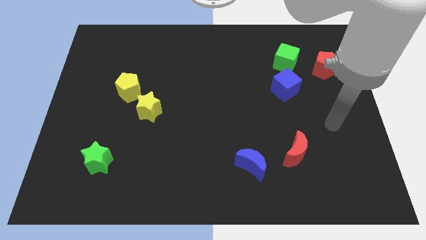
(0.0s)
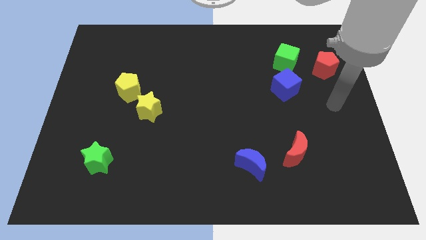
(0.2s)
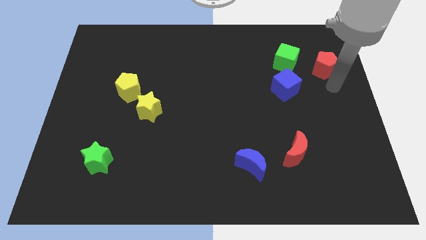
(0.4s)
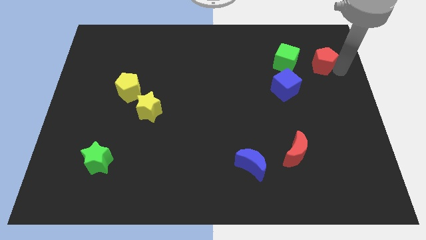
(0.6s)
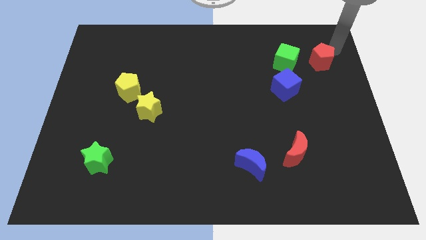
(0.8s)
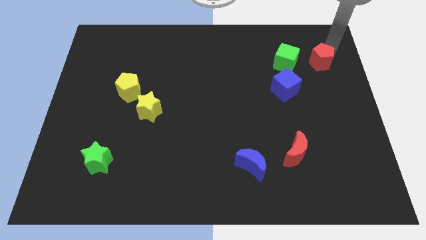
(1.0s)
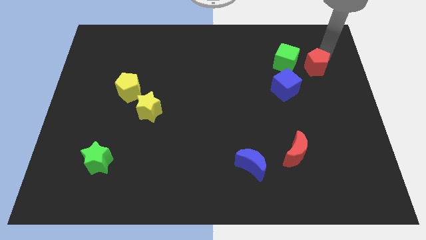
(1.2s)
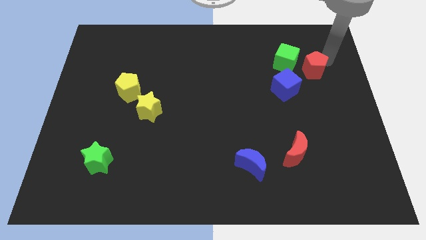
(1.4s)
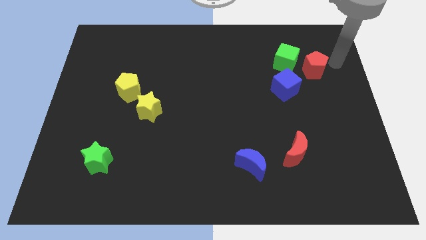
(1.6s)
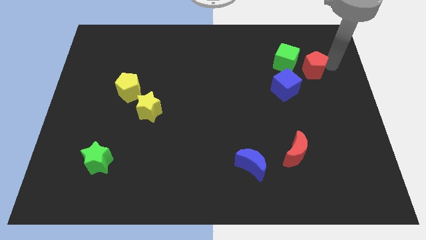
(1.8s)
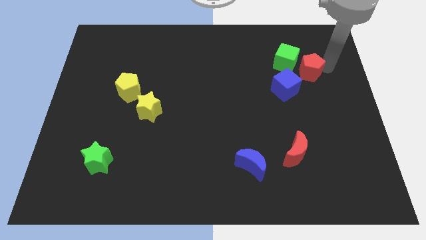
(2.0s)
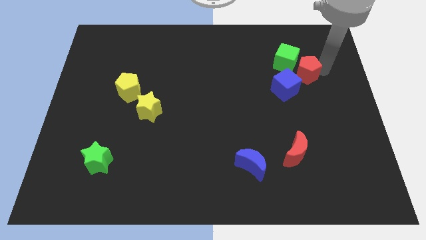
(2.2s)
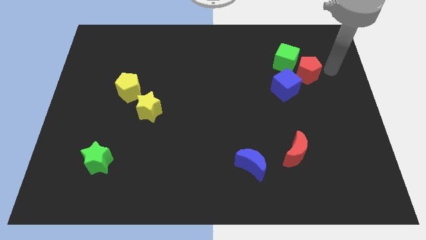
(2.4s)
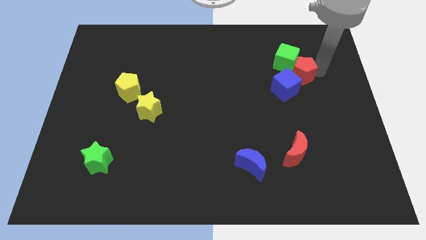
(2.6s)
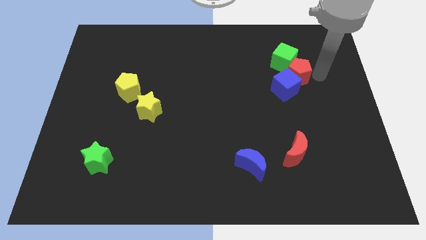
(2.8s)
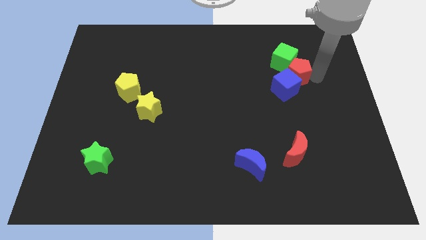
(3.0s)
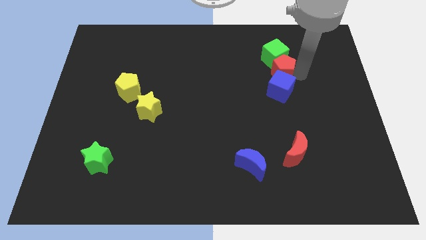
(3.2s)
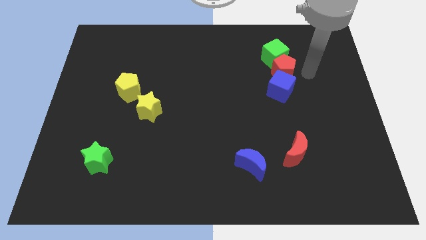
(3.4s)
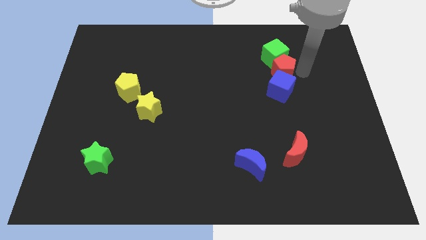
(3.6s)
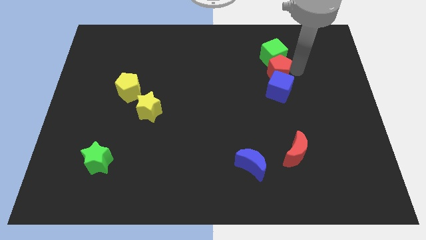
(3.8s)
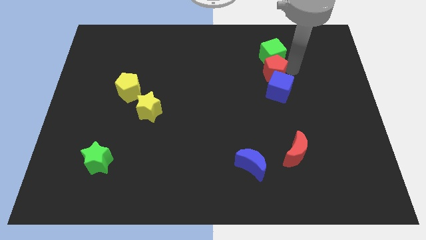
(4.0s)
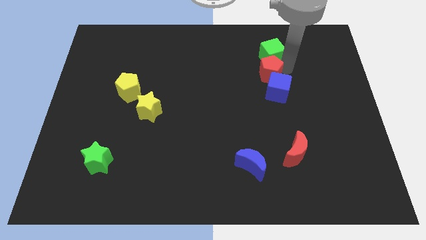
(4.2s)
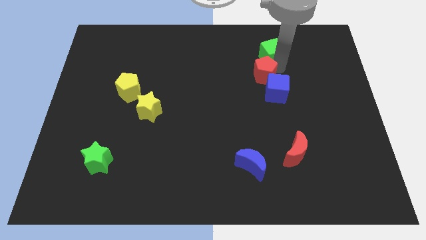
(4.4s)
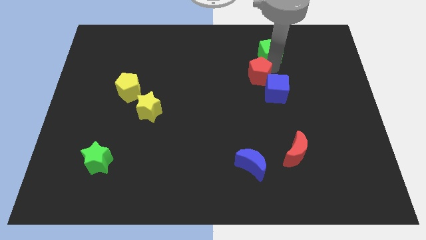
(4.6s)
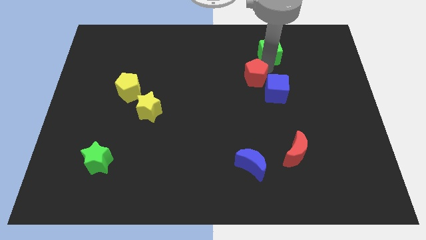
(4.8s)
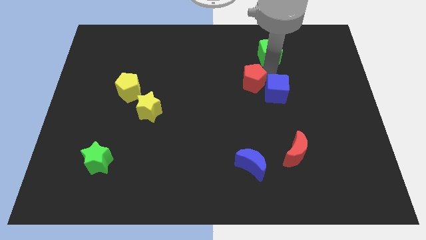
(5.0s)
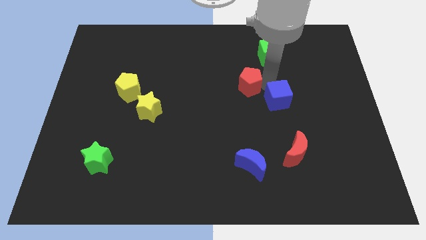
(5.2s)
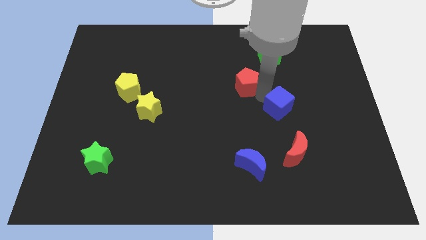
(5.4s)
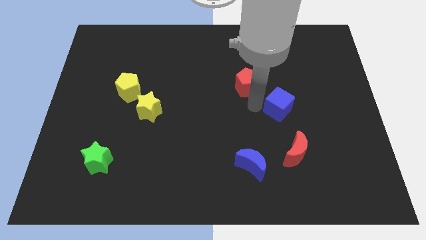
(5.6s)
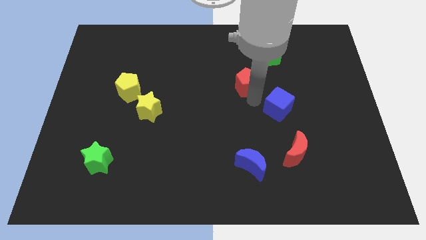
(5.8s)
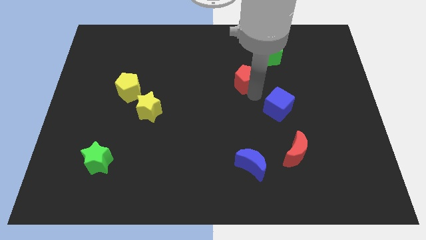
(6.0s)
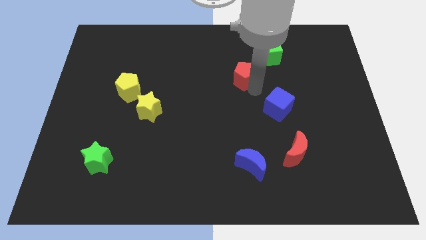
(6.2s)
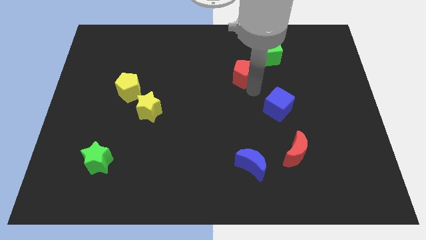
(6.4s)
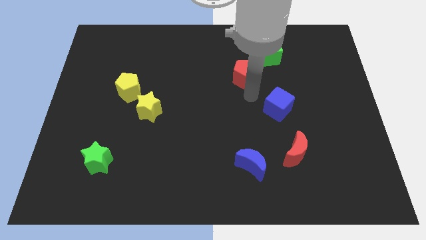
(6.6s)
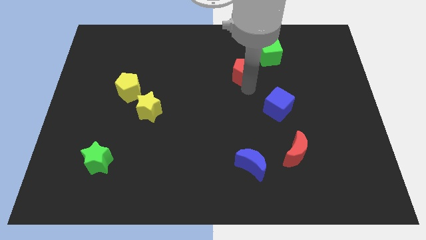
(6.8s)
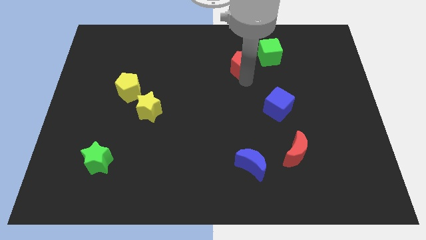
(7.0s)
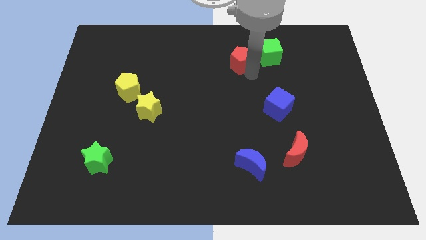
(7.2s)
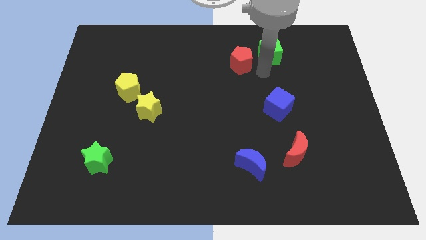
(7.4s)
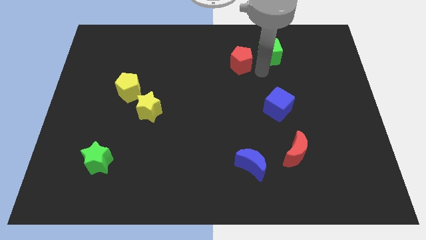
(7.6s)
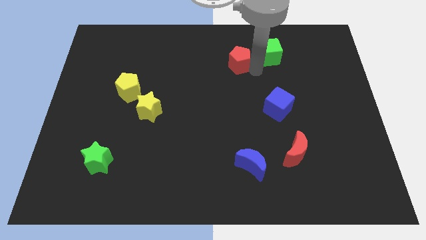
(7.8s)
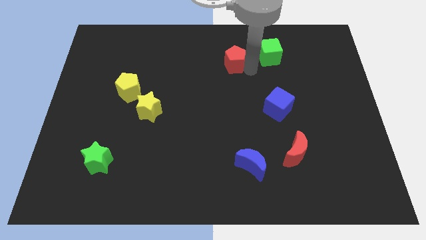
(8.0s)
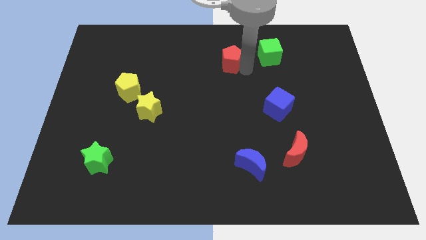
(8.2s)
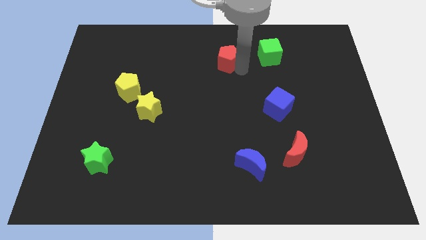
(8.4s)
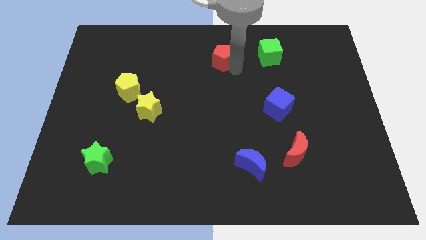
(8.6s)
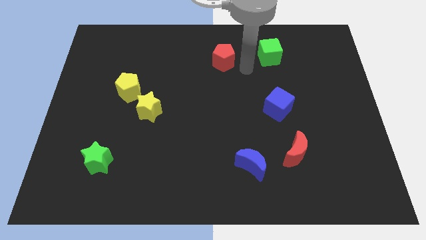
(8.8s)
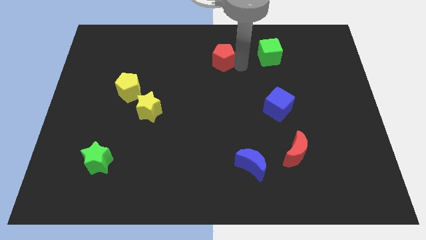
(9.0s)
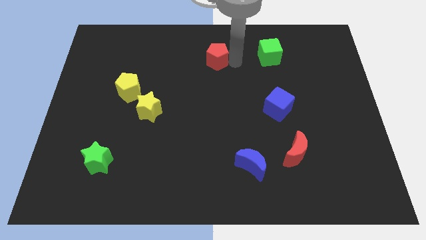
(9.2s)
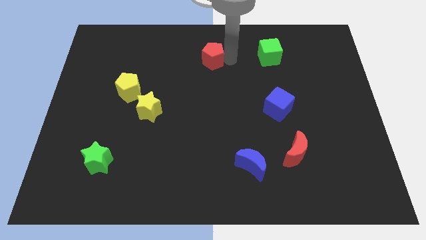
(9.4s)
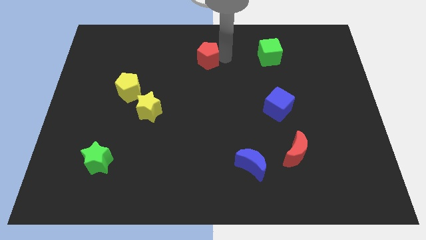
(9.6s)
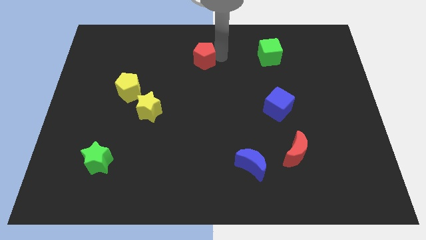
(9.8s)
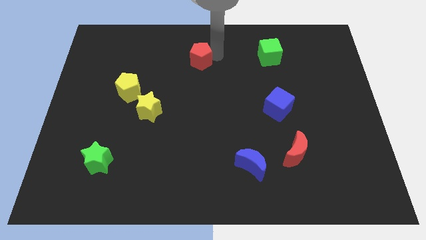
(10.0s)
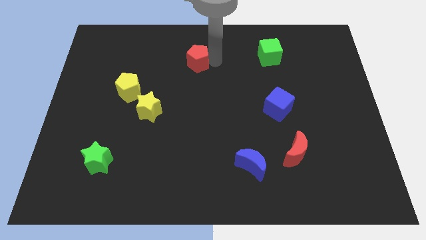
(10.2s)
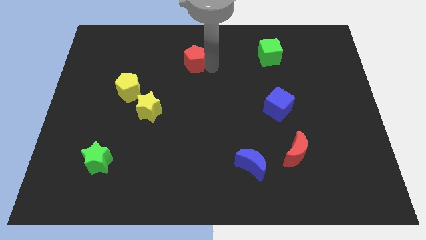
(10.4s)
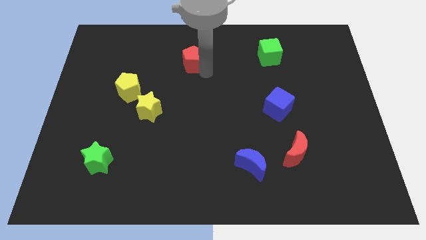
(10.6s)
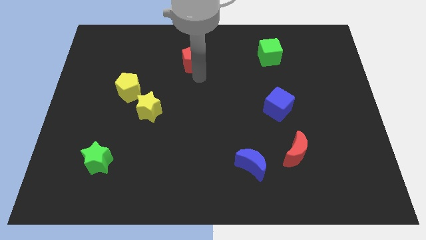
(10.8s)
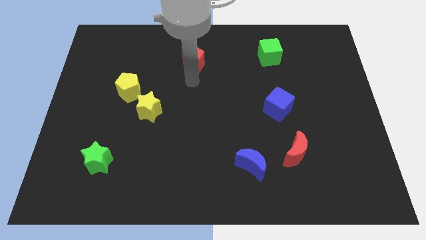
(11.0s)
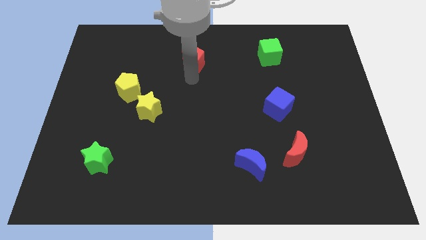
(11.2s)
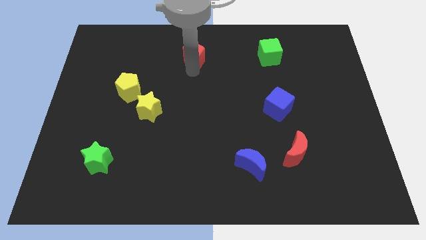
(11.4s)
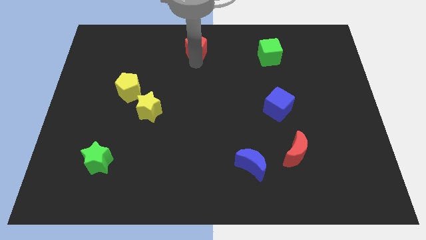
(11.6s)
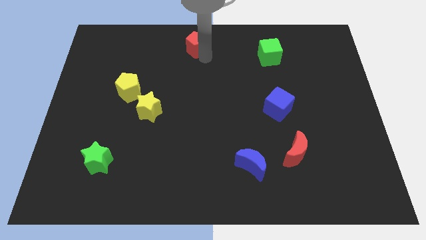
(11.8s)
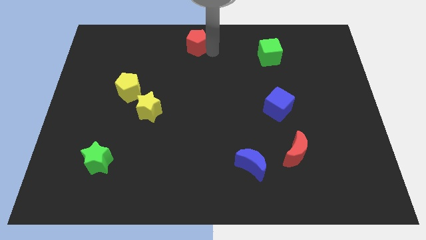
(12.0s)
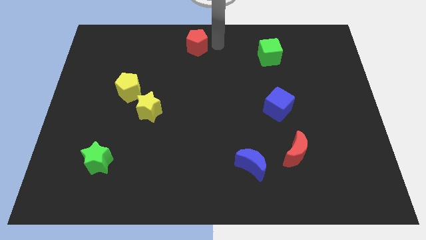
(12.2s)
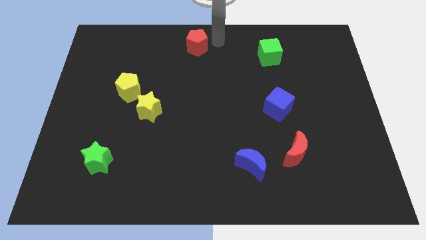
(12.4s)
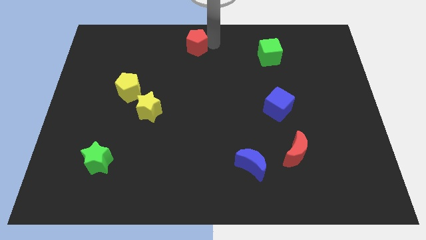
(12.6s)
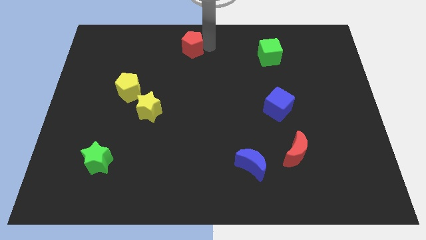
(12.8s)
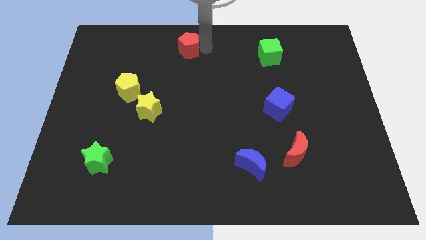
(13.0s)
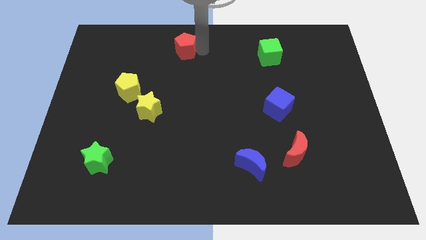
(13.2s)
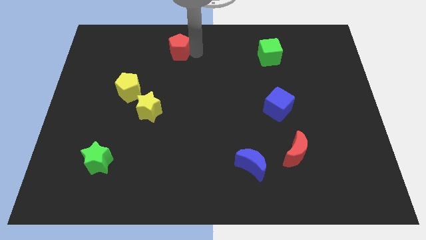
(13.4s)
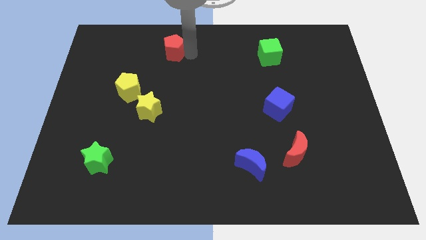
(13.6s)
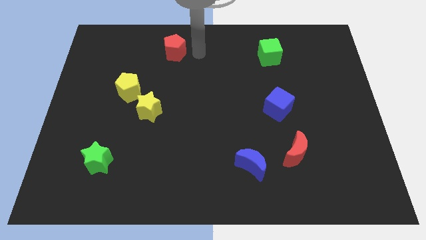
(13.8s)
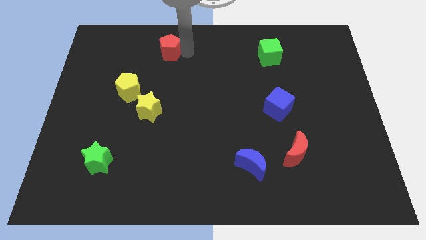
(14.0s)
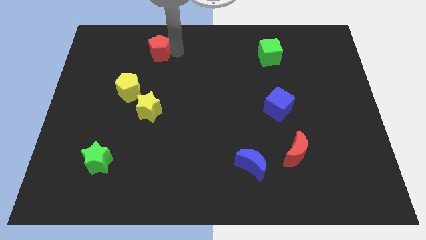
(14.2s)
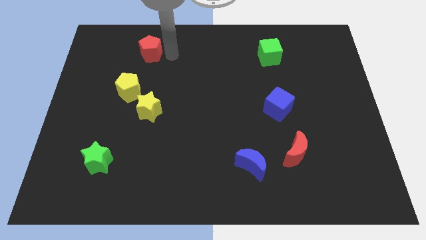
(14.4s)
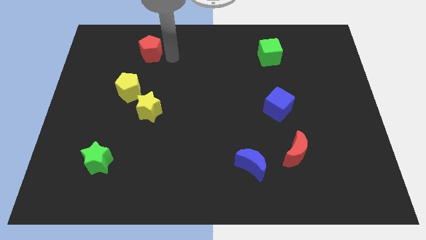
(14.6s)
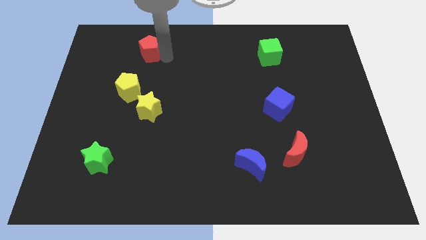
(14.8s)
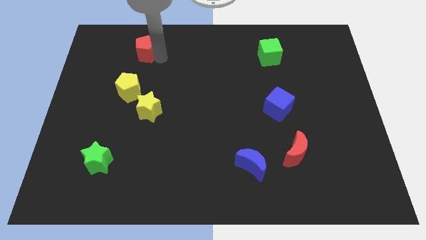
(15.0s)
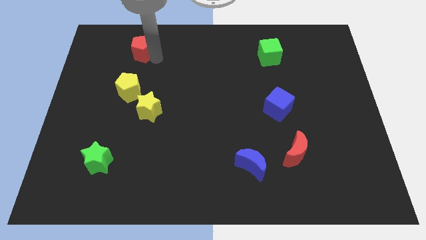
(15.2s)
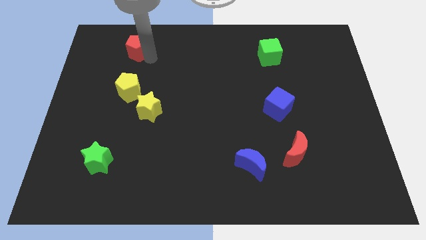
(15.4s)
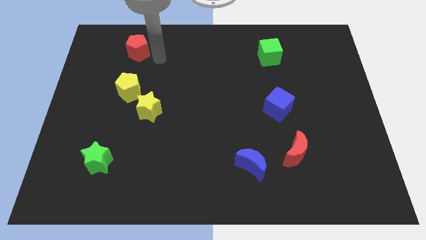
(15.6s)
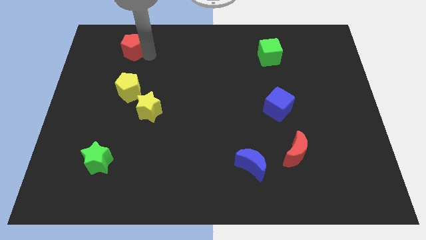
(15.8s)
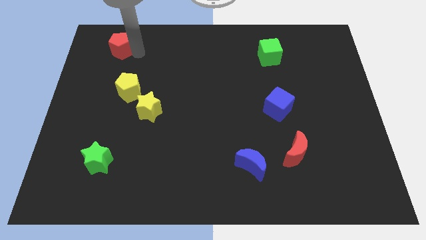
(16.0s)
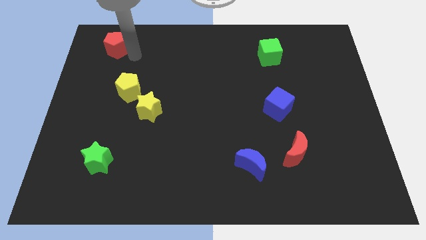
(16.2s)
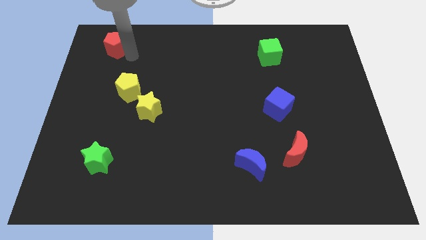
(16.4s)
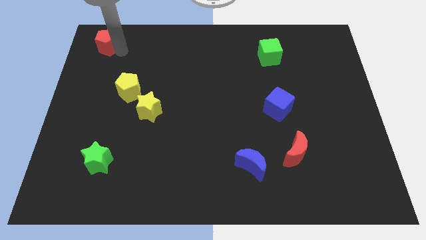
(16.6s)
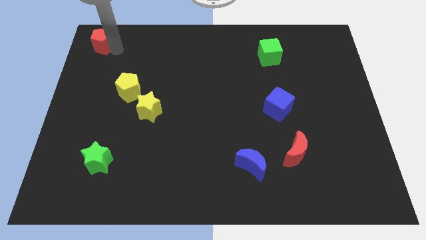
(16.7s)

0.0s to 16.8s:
move the red pentagon to the top left of the board
